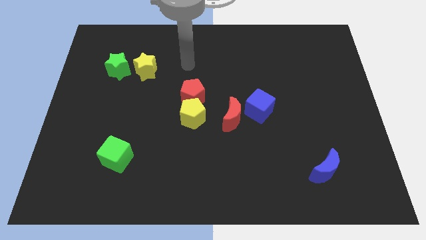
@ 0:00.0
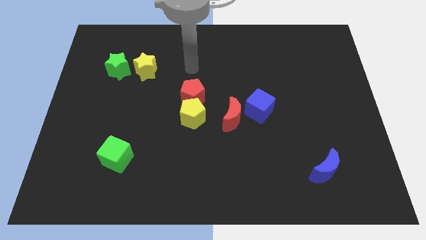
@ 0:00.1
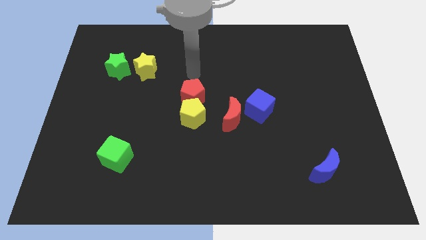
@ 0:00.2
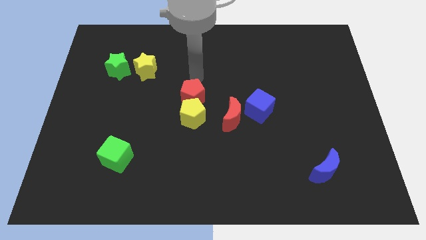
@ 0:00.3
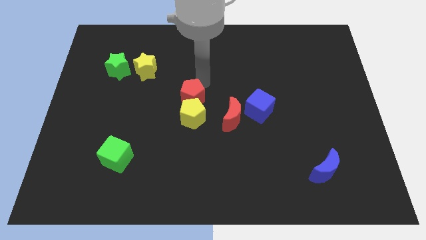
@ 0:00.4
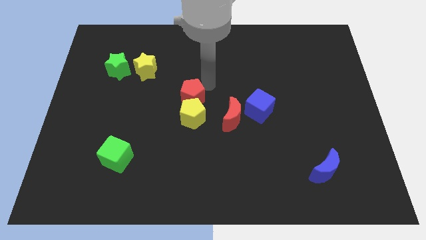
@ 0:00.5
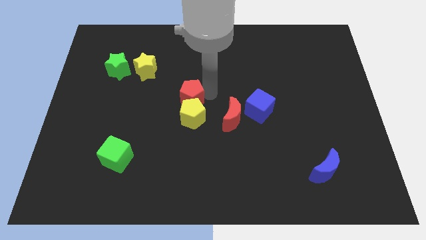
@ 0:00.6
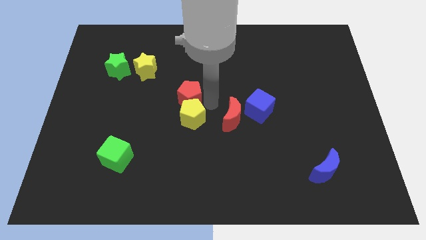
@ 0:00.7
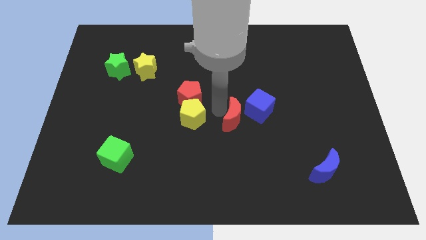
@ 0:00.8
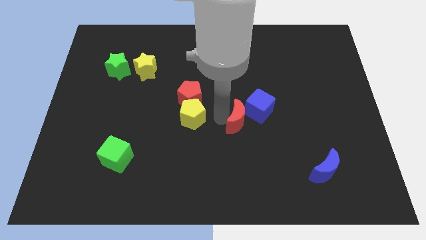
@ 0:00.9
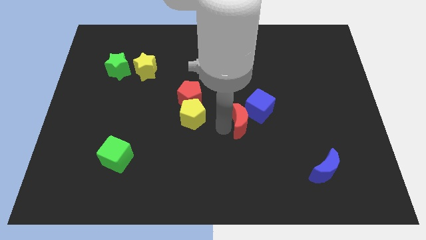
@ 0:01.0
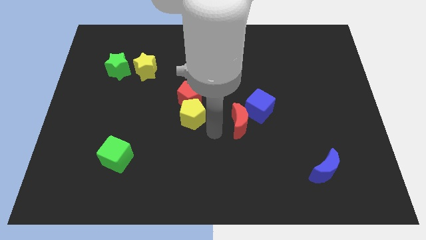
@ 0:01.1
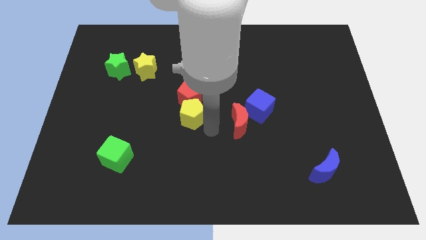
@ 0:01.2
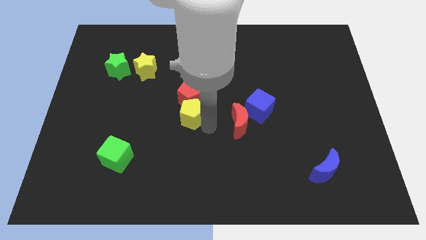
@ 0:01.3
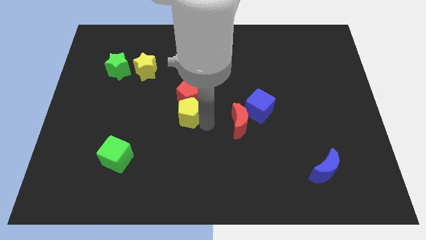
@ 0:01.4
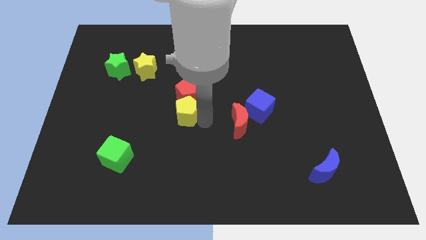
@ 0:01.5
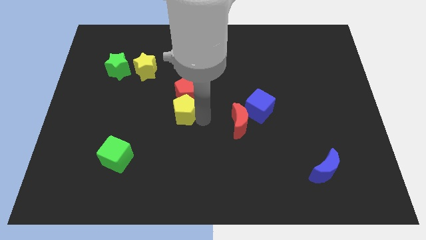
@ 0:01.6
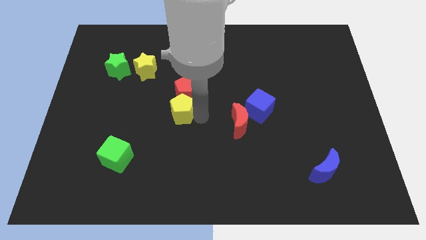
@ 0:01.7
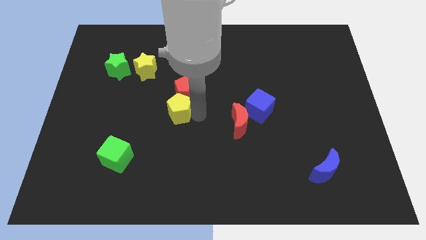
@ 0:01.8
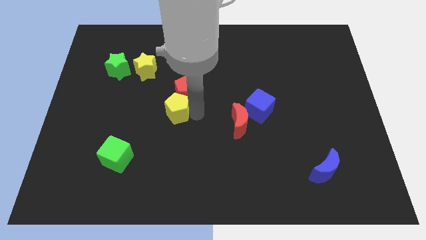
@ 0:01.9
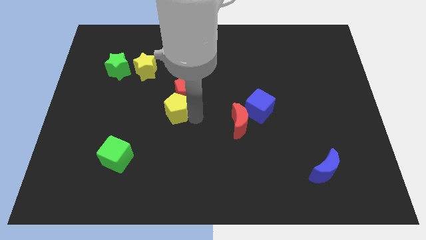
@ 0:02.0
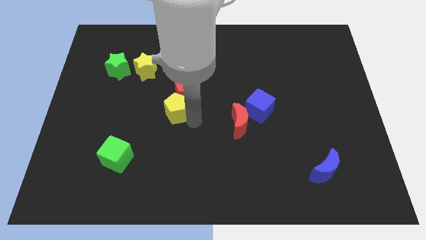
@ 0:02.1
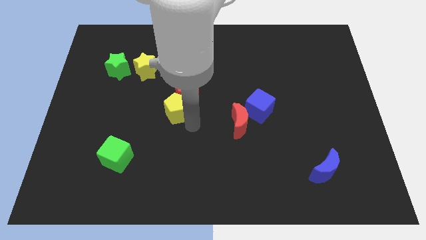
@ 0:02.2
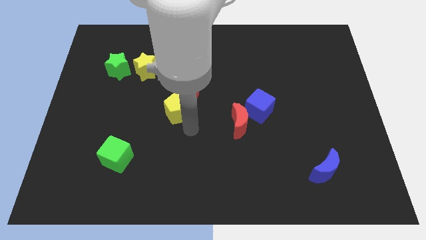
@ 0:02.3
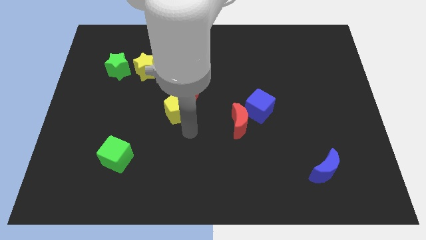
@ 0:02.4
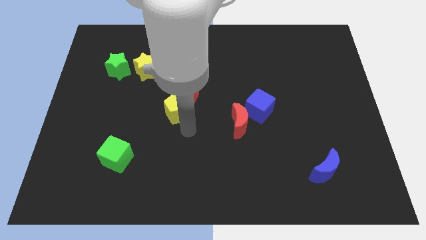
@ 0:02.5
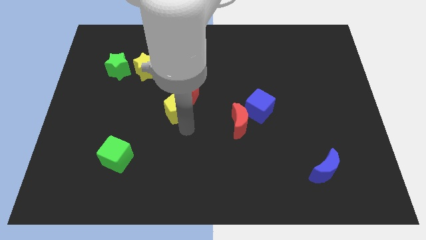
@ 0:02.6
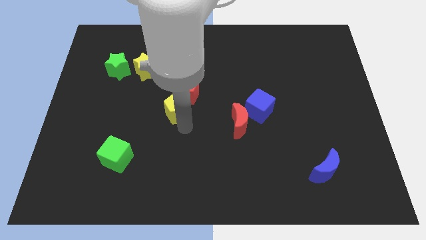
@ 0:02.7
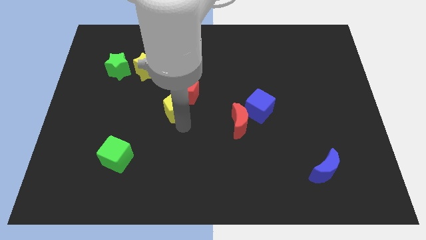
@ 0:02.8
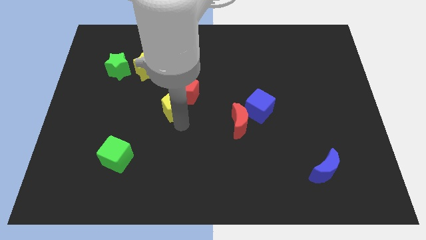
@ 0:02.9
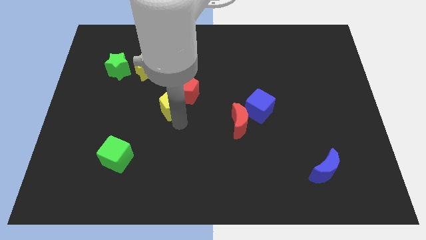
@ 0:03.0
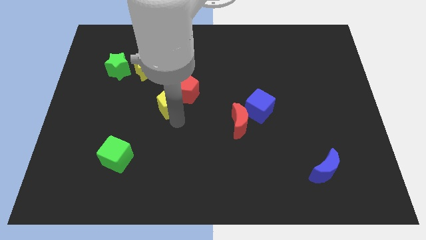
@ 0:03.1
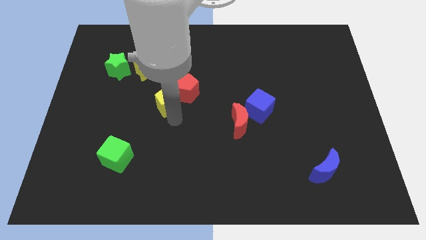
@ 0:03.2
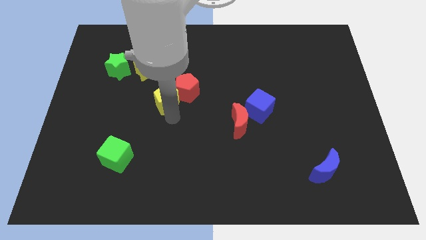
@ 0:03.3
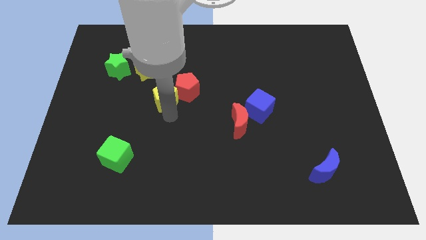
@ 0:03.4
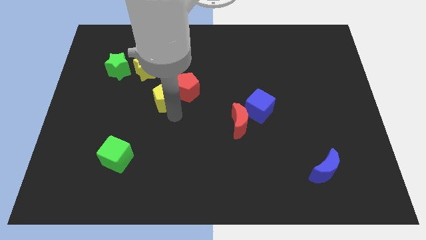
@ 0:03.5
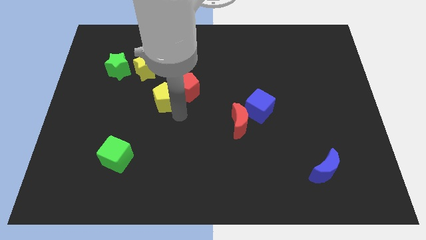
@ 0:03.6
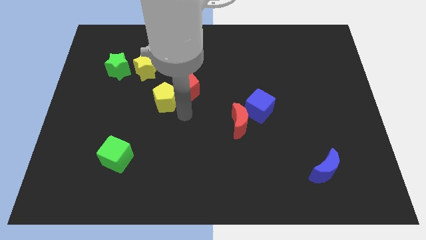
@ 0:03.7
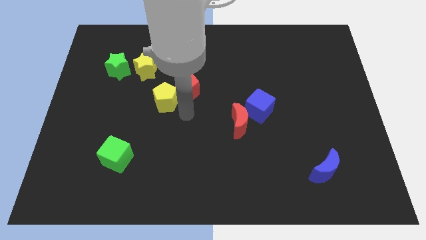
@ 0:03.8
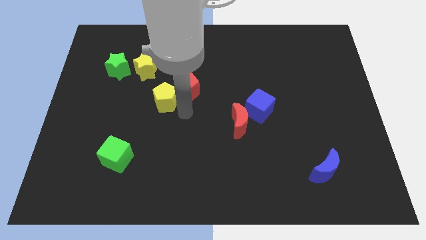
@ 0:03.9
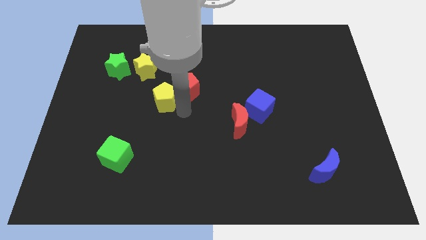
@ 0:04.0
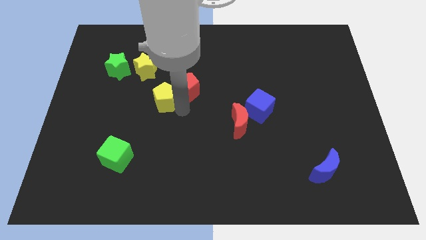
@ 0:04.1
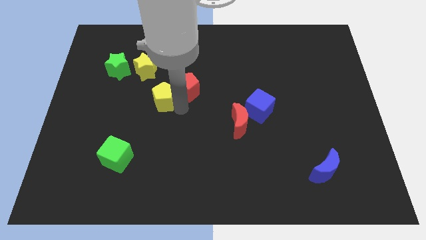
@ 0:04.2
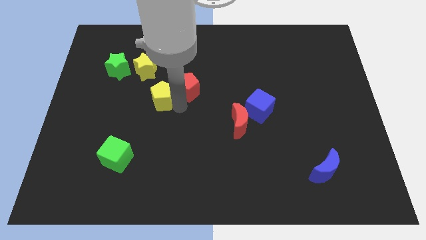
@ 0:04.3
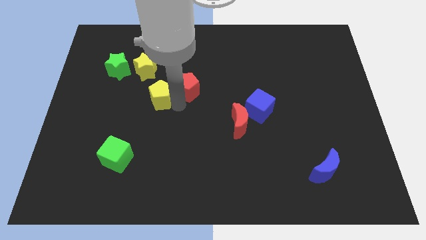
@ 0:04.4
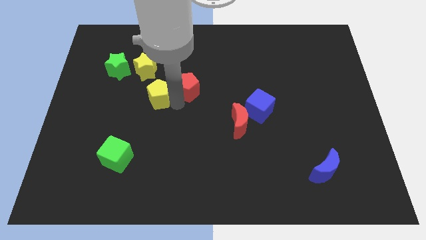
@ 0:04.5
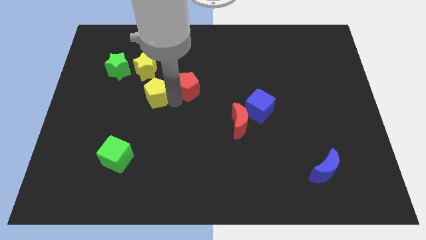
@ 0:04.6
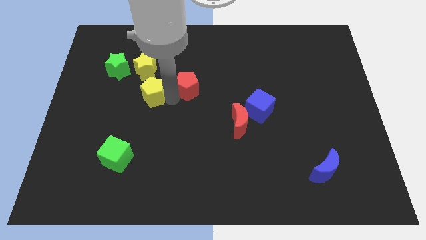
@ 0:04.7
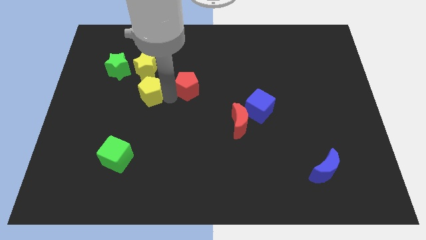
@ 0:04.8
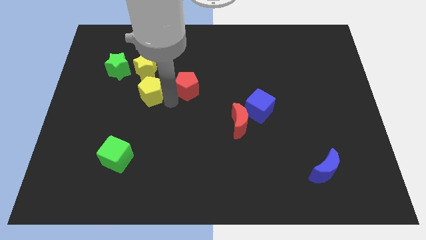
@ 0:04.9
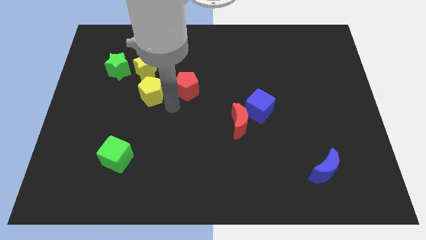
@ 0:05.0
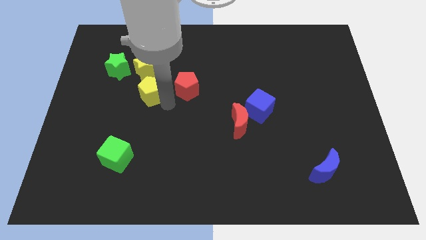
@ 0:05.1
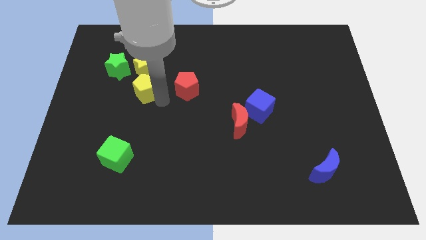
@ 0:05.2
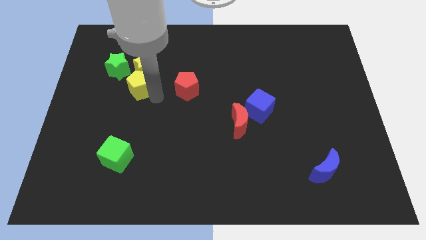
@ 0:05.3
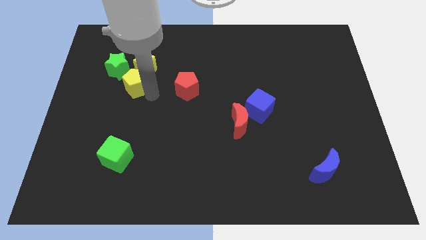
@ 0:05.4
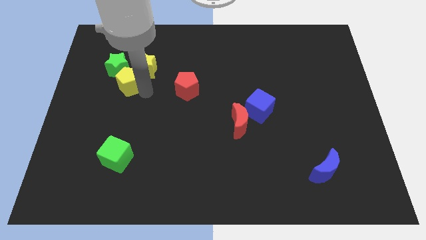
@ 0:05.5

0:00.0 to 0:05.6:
slide the yellow pentagon towards the green star

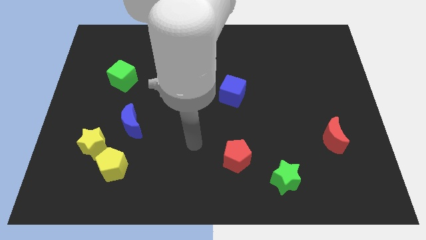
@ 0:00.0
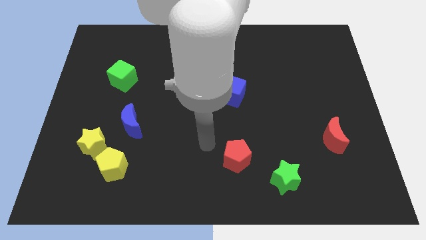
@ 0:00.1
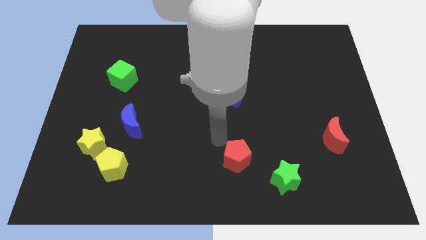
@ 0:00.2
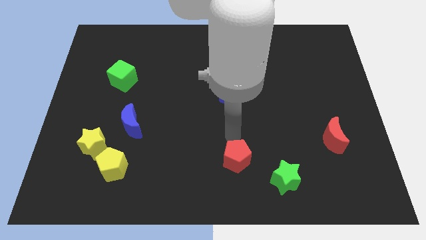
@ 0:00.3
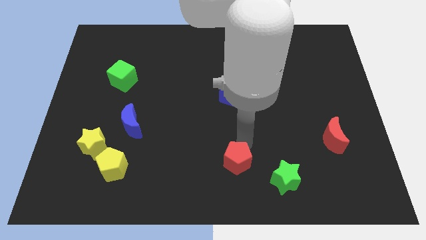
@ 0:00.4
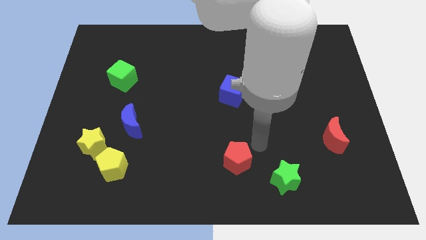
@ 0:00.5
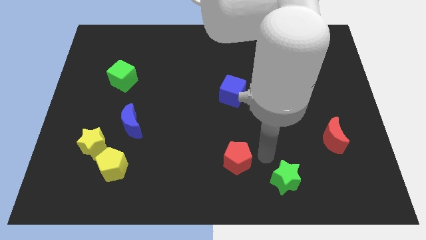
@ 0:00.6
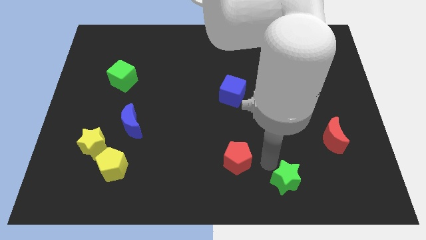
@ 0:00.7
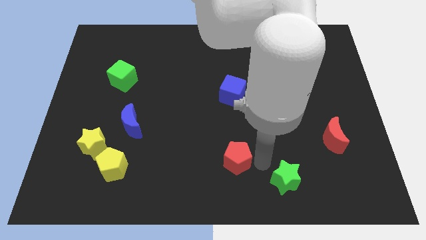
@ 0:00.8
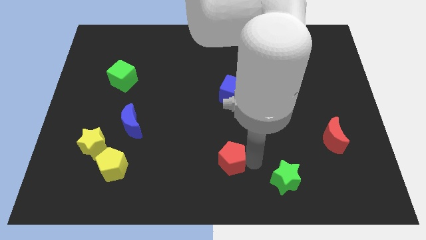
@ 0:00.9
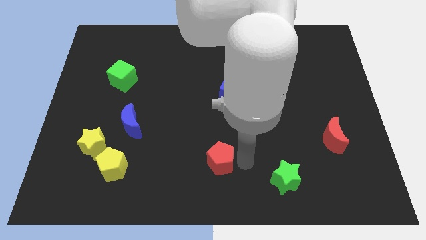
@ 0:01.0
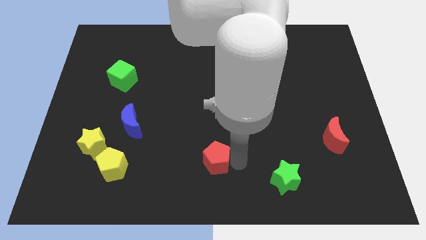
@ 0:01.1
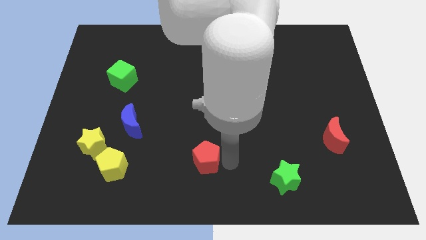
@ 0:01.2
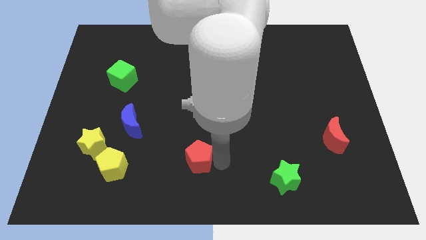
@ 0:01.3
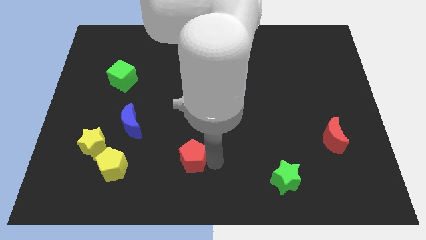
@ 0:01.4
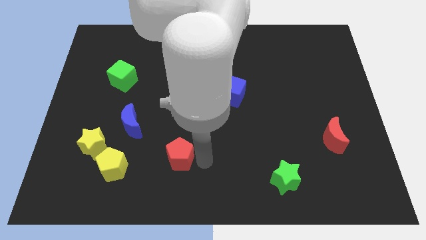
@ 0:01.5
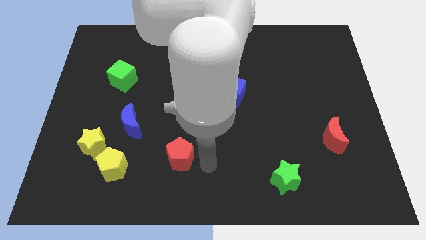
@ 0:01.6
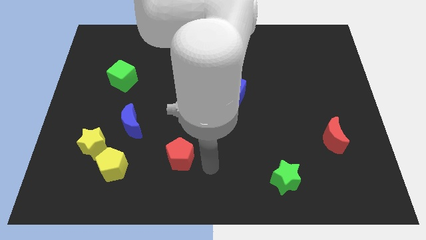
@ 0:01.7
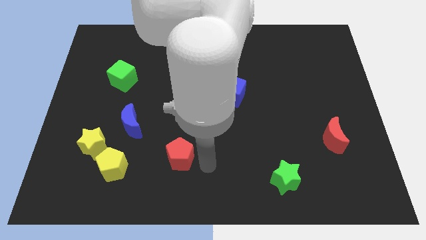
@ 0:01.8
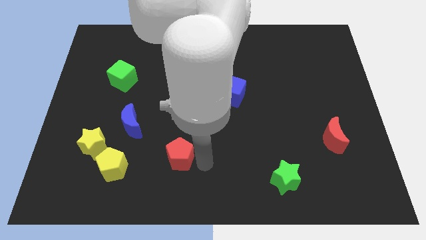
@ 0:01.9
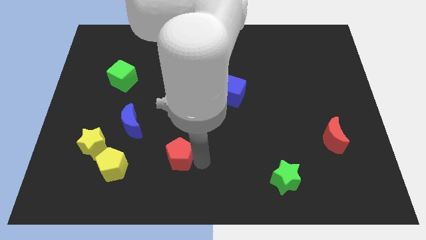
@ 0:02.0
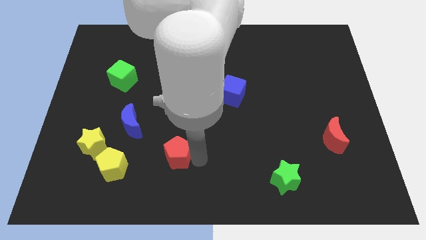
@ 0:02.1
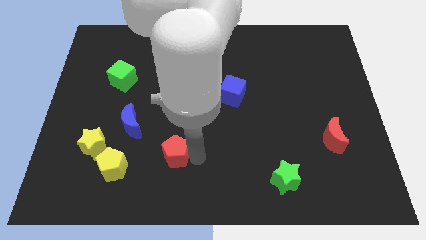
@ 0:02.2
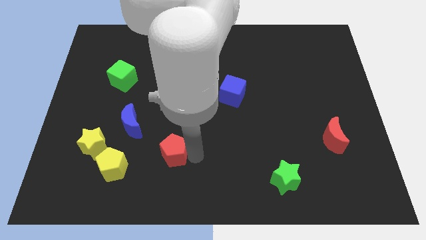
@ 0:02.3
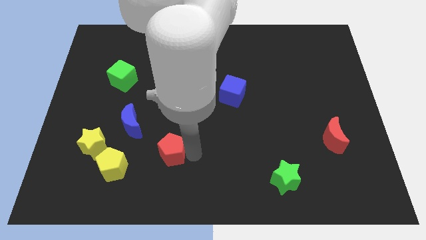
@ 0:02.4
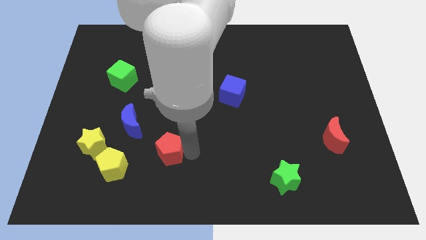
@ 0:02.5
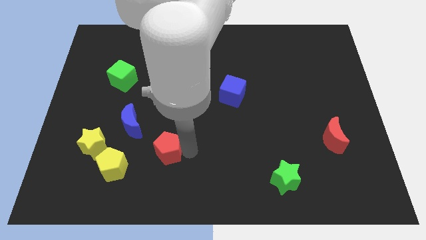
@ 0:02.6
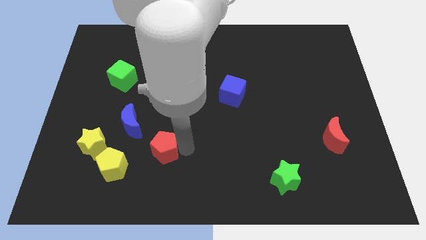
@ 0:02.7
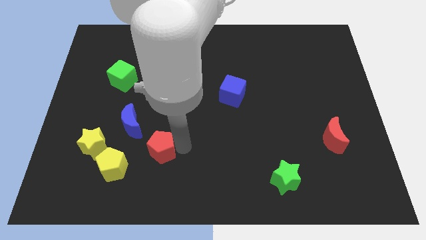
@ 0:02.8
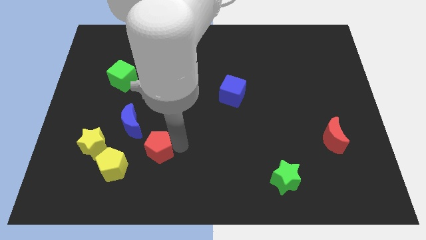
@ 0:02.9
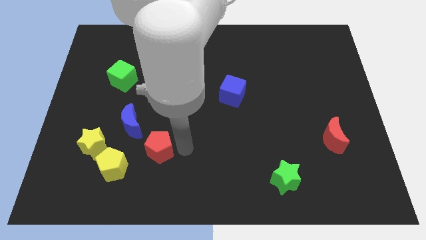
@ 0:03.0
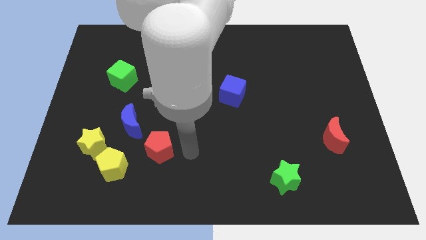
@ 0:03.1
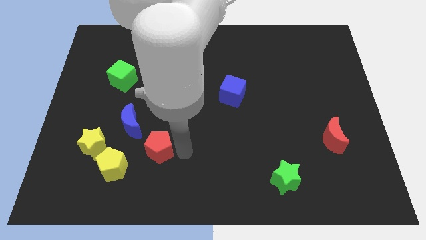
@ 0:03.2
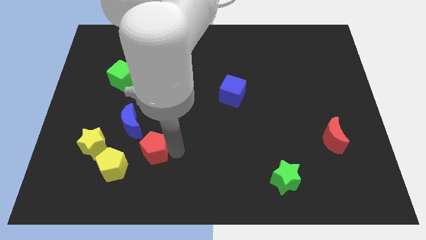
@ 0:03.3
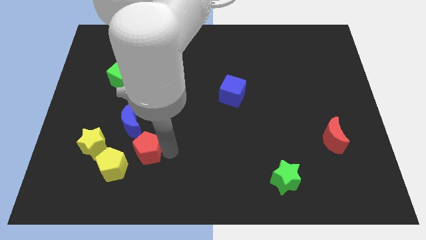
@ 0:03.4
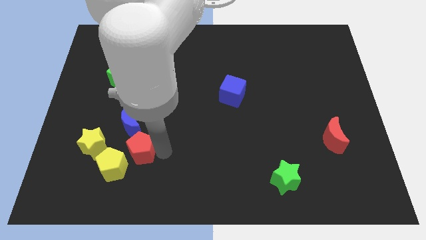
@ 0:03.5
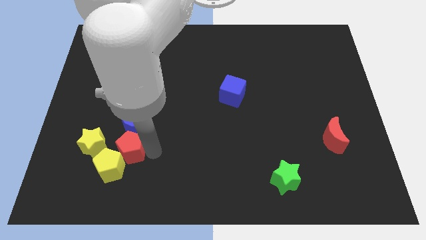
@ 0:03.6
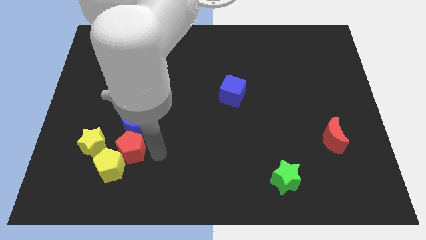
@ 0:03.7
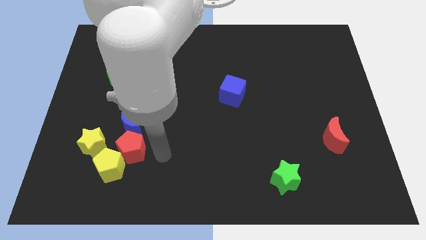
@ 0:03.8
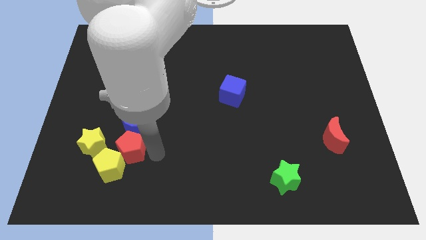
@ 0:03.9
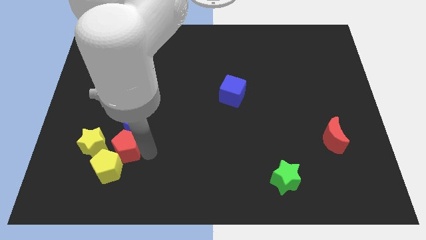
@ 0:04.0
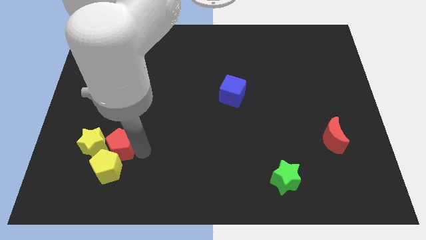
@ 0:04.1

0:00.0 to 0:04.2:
put the red pentagon close to the yellow star
